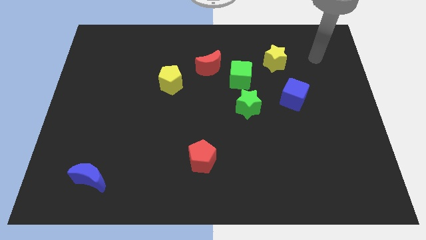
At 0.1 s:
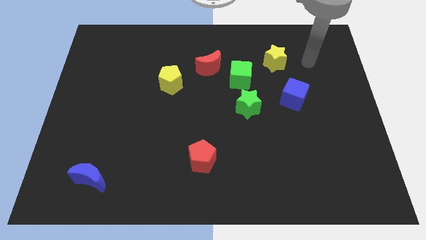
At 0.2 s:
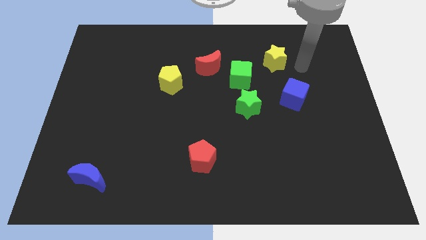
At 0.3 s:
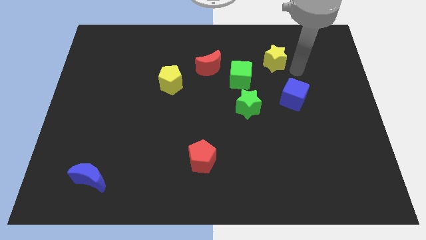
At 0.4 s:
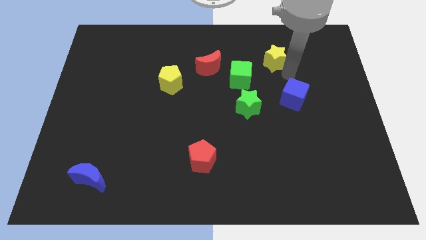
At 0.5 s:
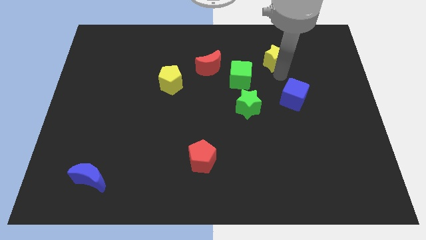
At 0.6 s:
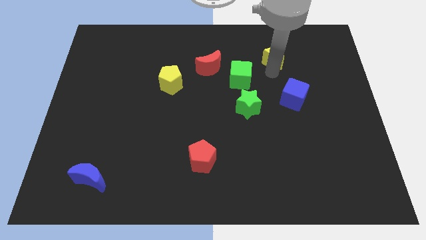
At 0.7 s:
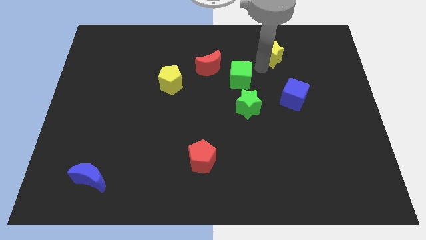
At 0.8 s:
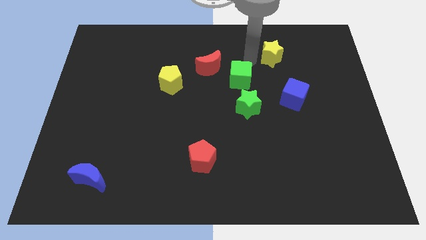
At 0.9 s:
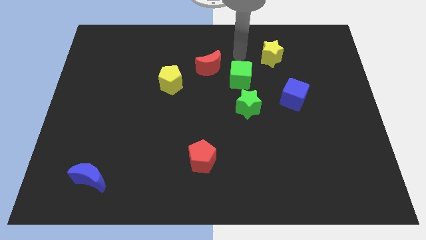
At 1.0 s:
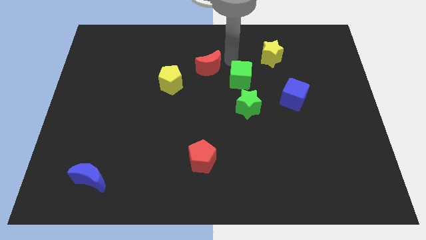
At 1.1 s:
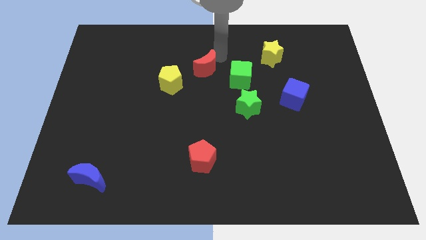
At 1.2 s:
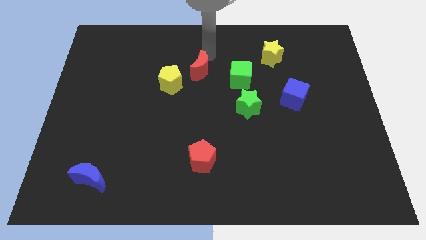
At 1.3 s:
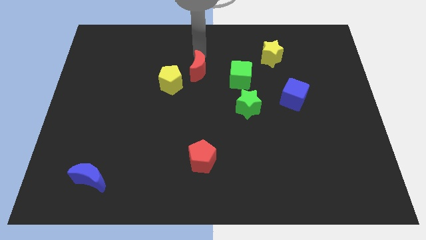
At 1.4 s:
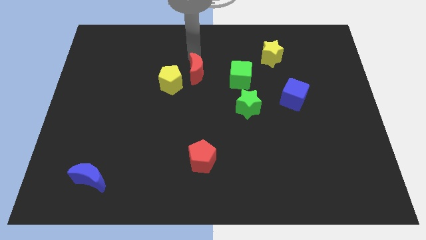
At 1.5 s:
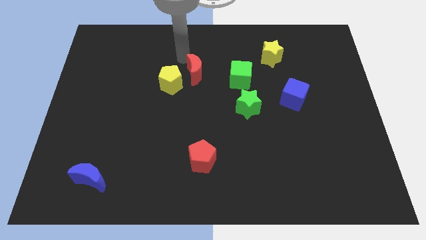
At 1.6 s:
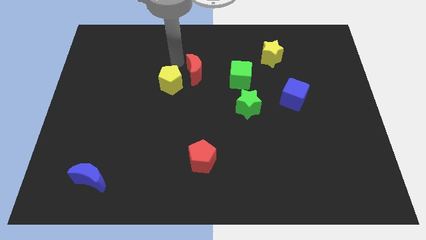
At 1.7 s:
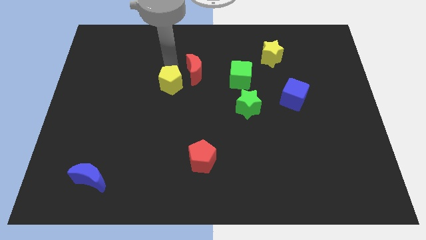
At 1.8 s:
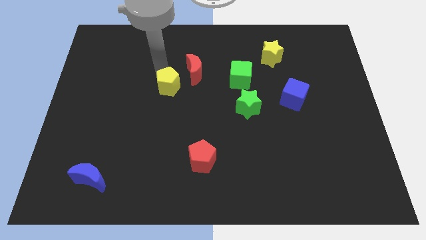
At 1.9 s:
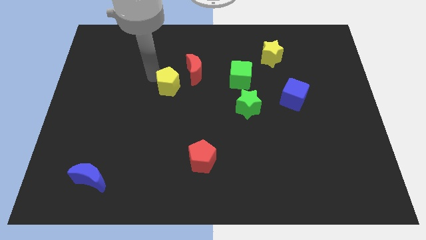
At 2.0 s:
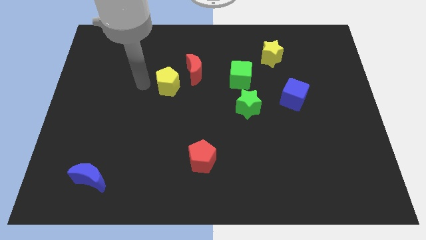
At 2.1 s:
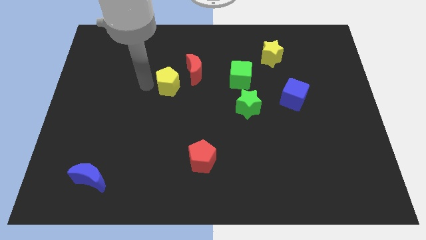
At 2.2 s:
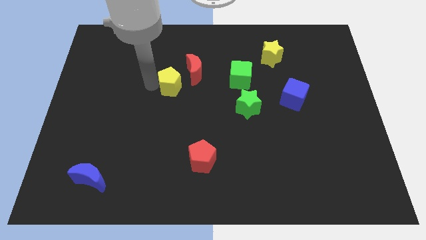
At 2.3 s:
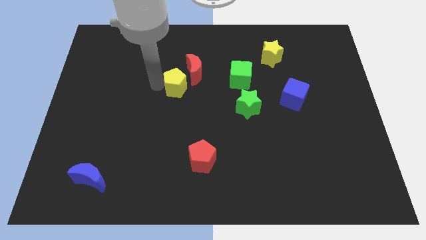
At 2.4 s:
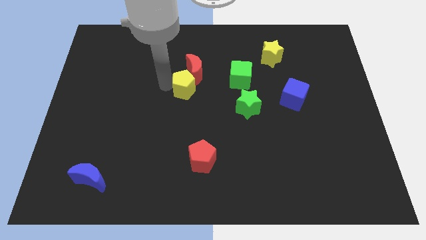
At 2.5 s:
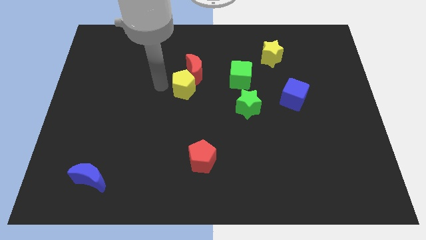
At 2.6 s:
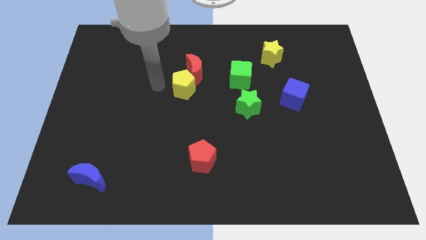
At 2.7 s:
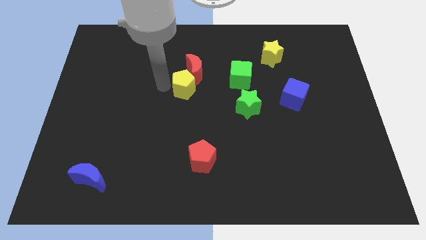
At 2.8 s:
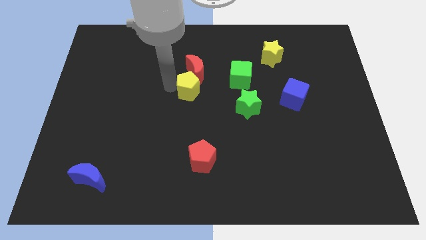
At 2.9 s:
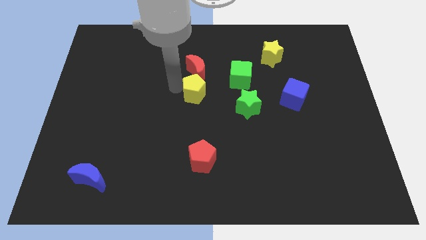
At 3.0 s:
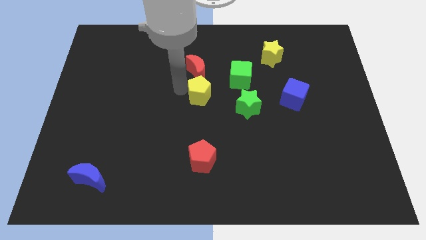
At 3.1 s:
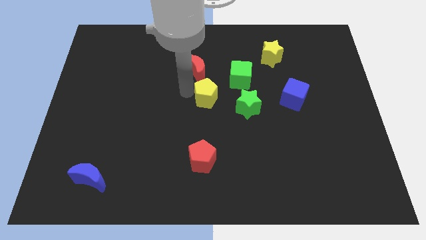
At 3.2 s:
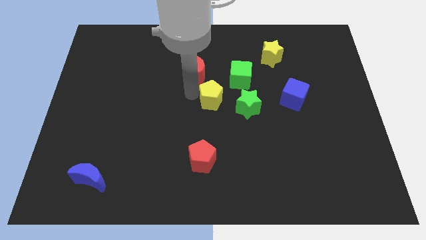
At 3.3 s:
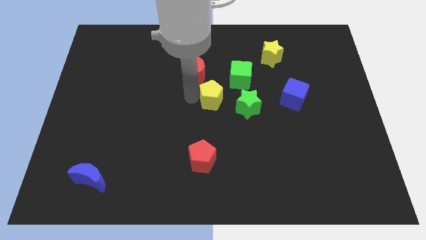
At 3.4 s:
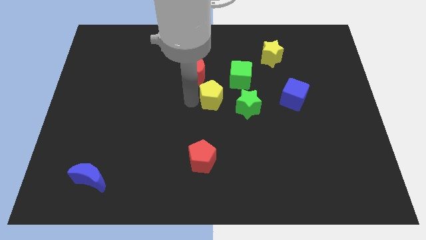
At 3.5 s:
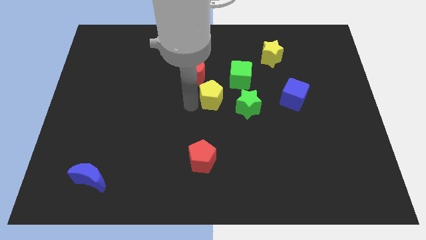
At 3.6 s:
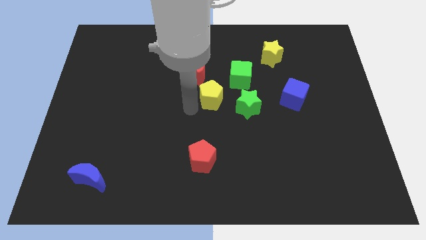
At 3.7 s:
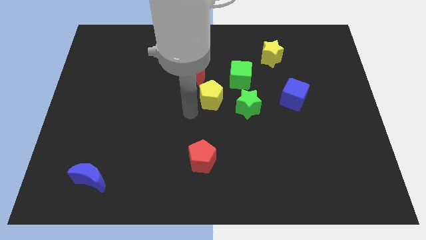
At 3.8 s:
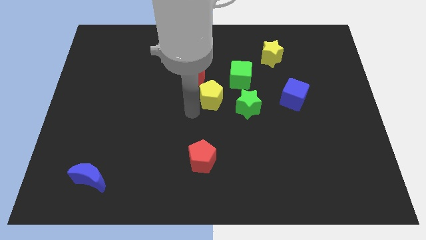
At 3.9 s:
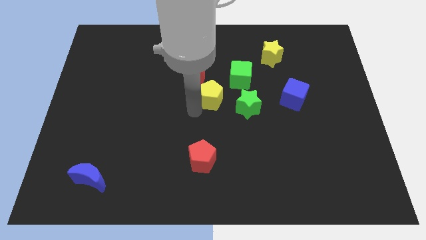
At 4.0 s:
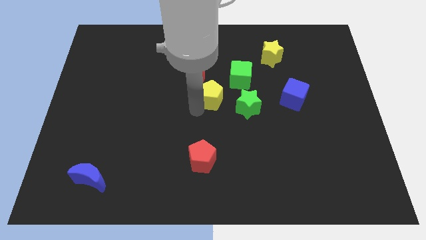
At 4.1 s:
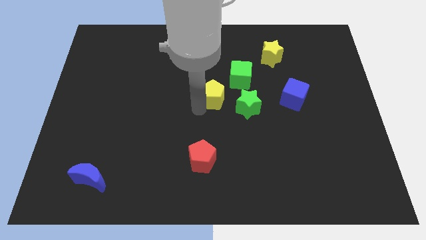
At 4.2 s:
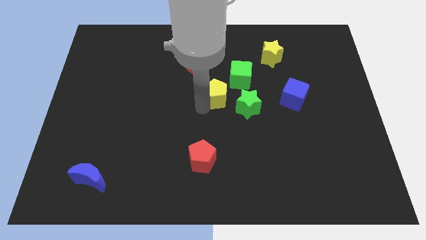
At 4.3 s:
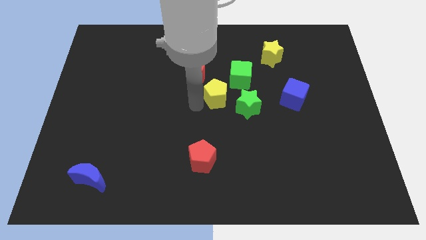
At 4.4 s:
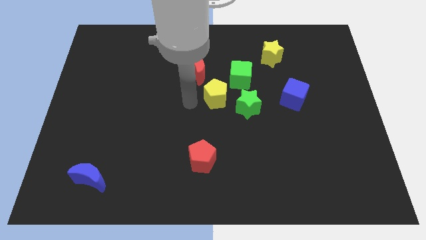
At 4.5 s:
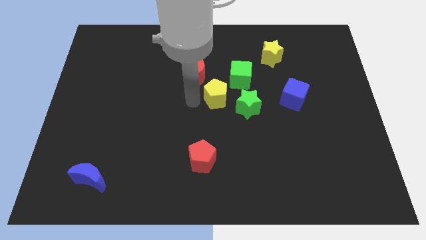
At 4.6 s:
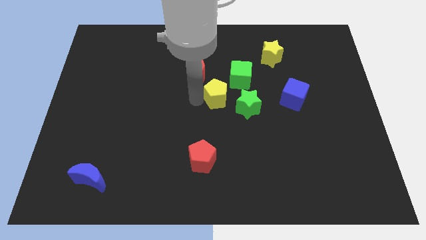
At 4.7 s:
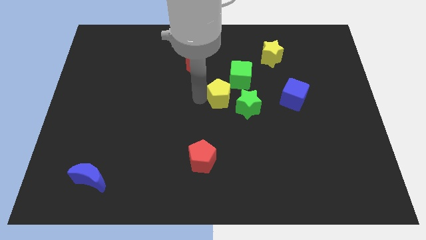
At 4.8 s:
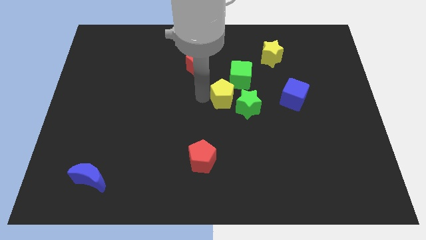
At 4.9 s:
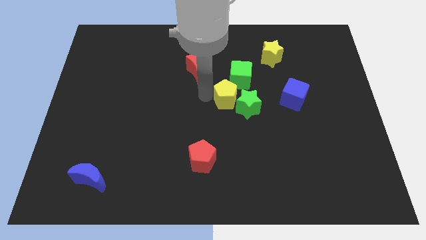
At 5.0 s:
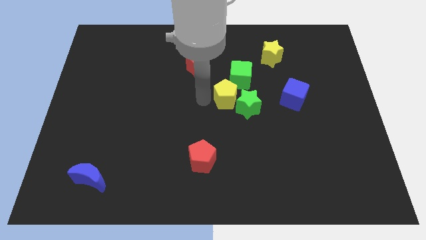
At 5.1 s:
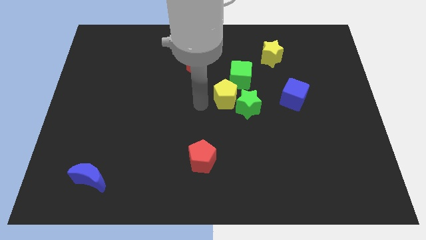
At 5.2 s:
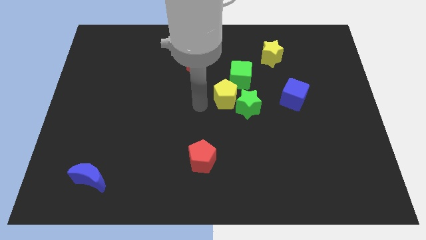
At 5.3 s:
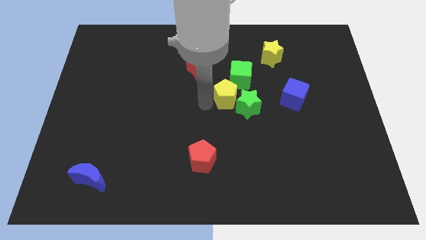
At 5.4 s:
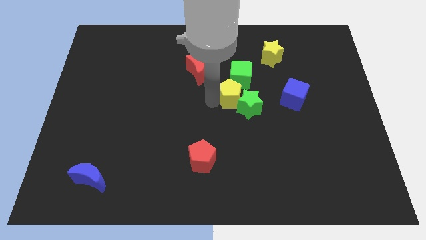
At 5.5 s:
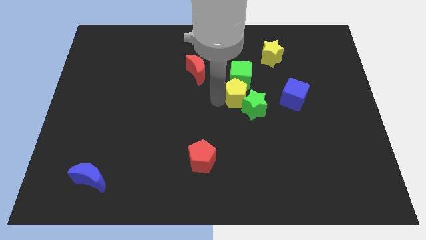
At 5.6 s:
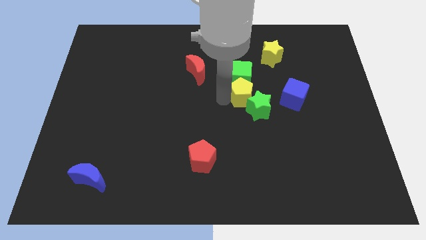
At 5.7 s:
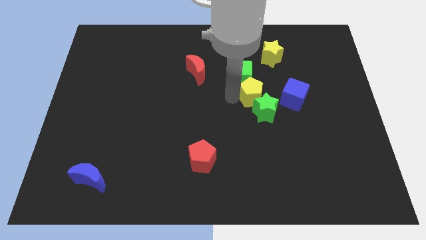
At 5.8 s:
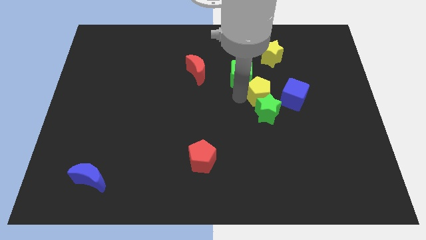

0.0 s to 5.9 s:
move the yellow pentagon to the right

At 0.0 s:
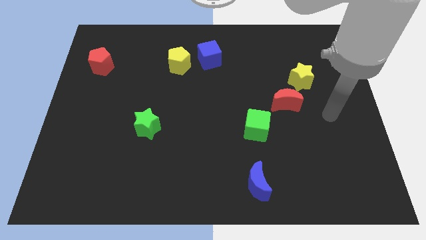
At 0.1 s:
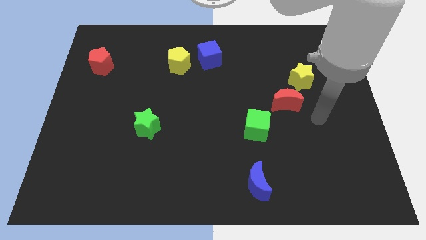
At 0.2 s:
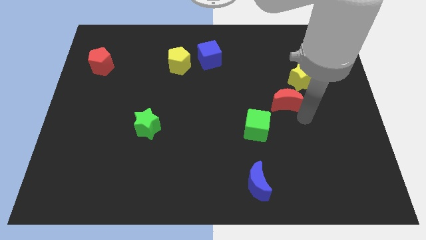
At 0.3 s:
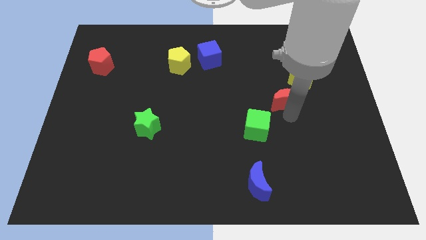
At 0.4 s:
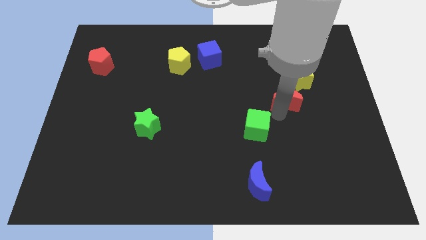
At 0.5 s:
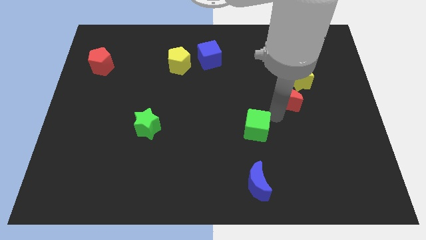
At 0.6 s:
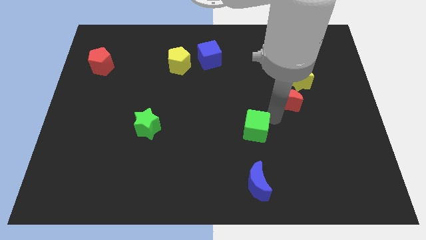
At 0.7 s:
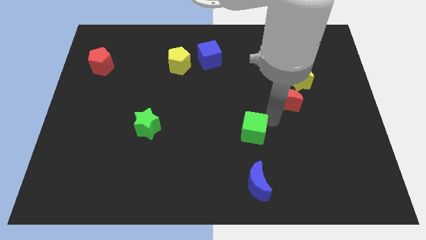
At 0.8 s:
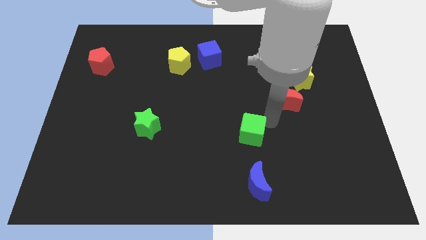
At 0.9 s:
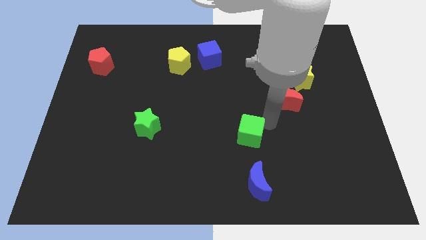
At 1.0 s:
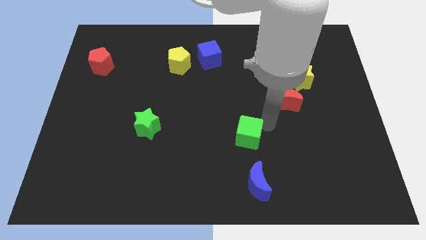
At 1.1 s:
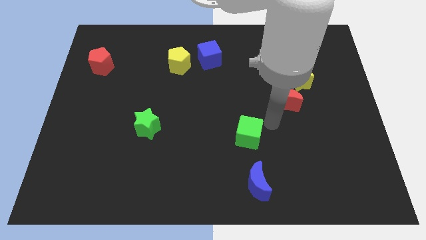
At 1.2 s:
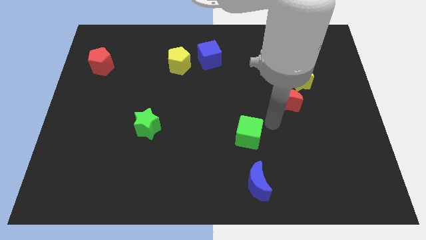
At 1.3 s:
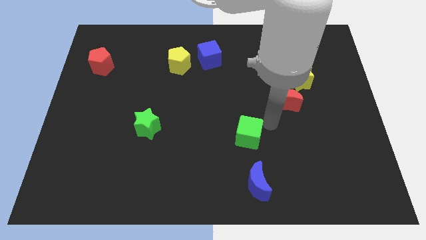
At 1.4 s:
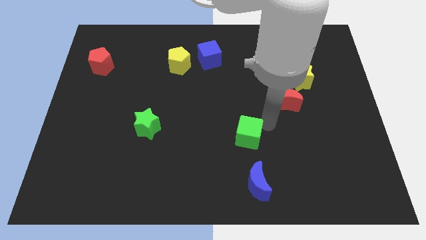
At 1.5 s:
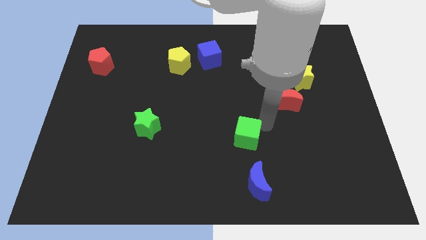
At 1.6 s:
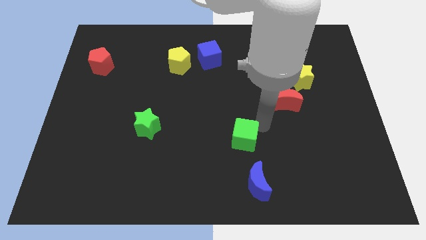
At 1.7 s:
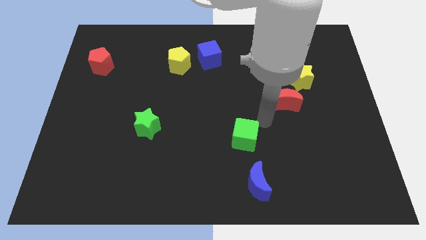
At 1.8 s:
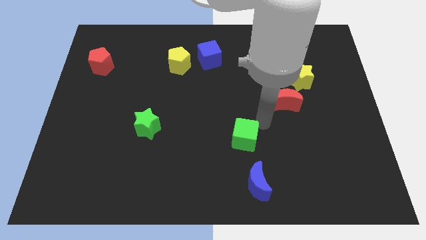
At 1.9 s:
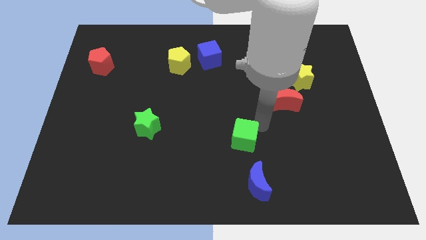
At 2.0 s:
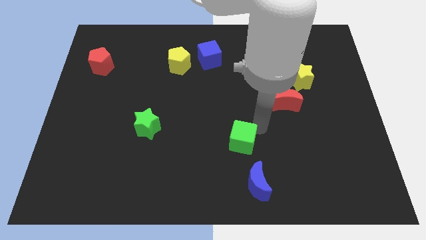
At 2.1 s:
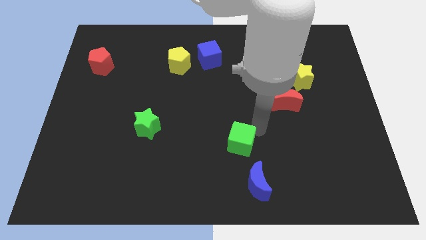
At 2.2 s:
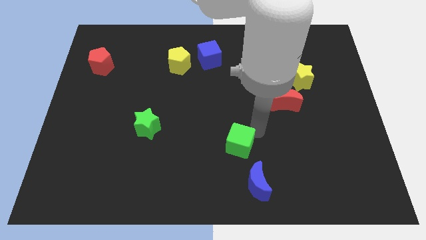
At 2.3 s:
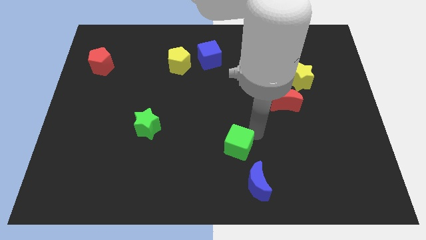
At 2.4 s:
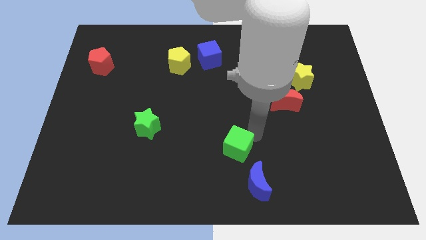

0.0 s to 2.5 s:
slide the green cube a bit down and then left
